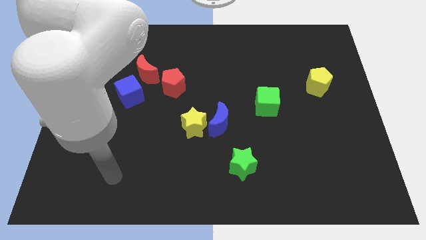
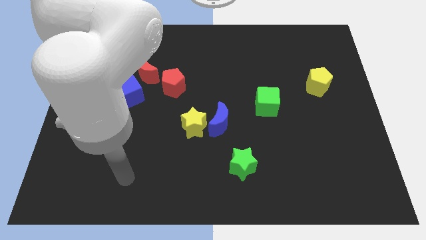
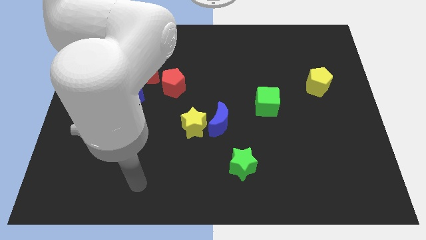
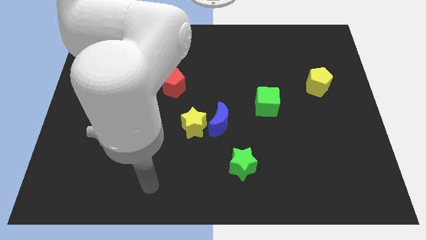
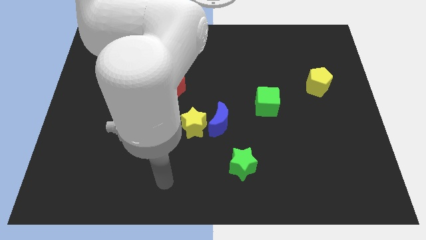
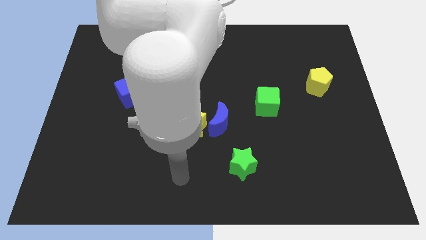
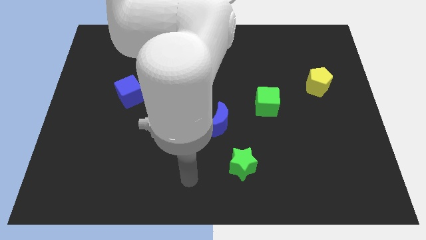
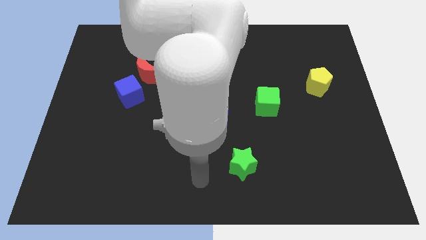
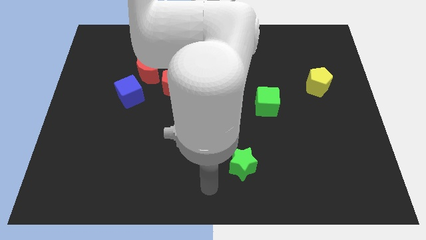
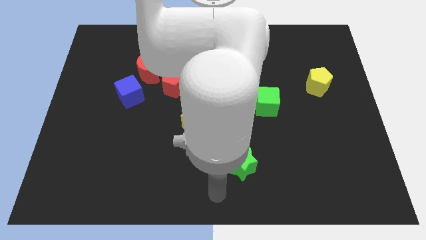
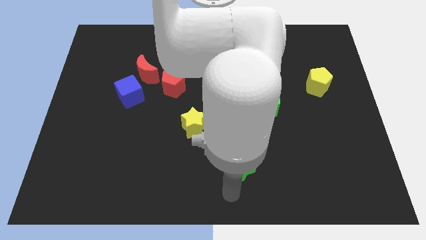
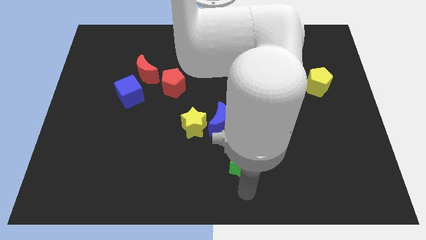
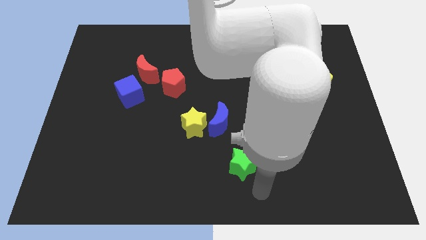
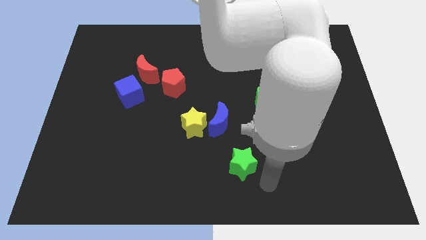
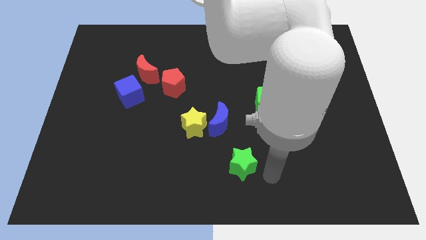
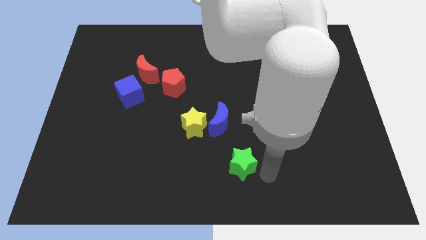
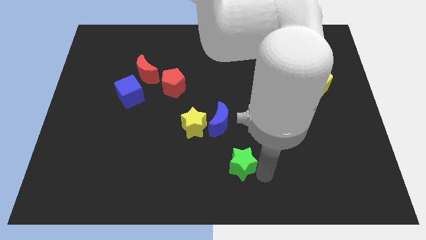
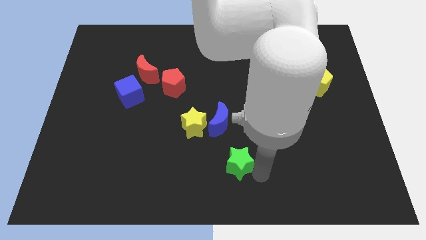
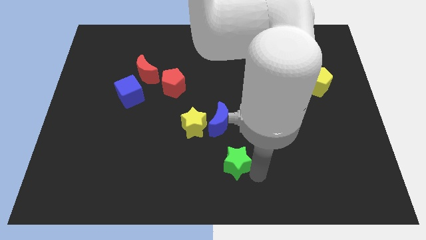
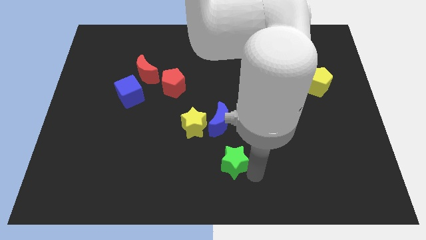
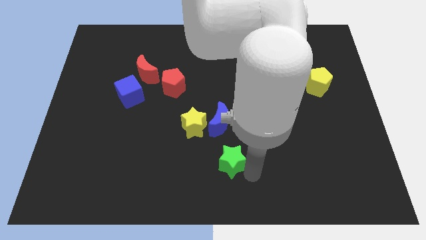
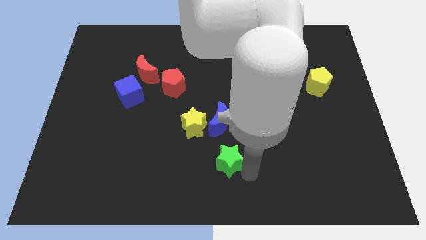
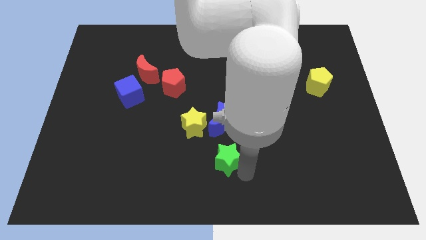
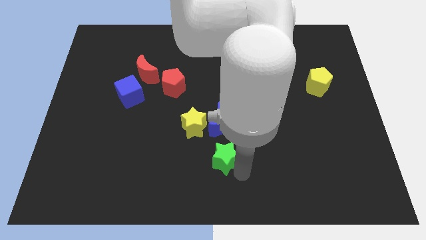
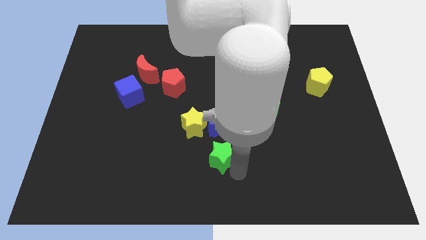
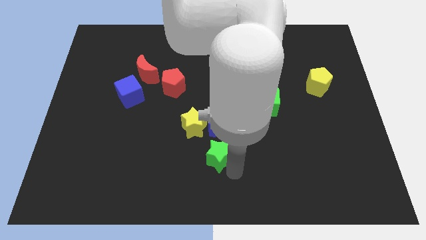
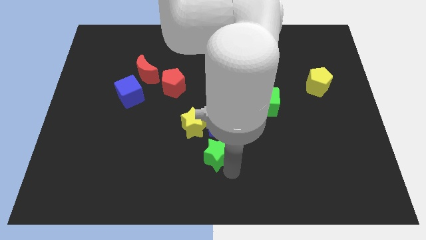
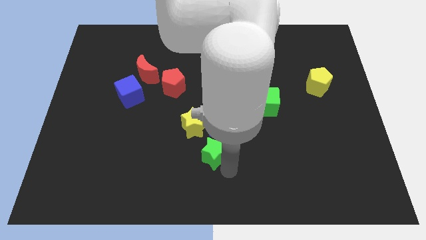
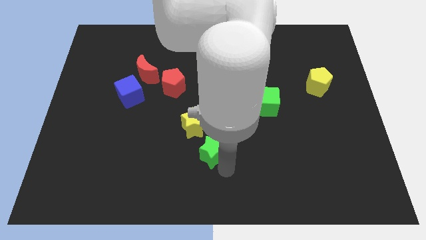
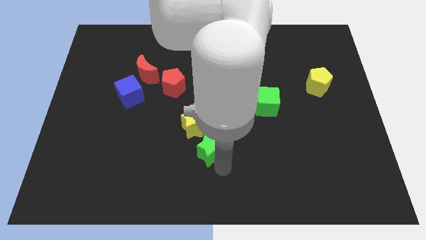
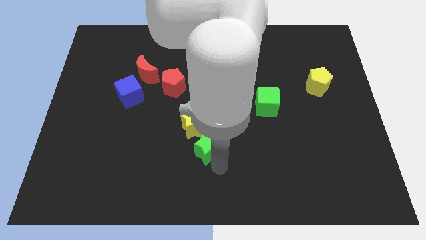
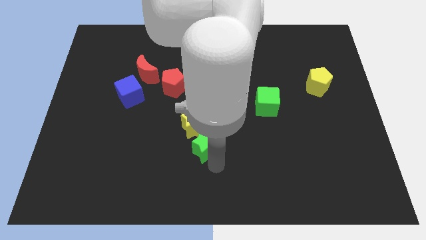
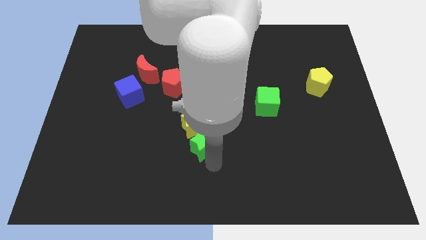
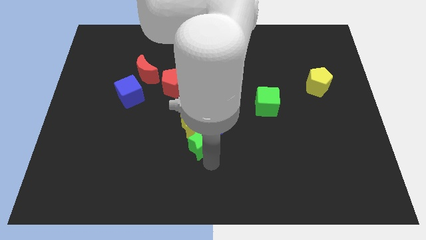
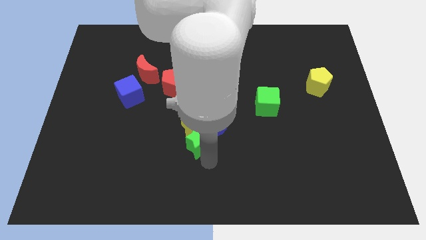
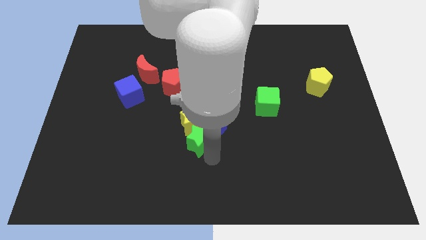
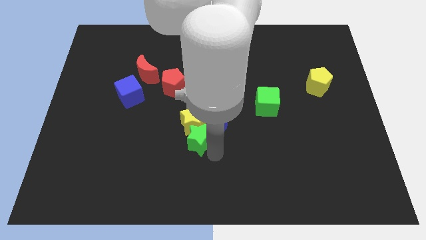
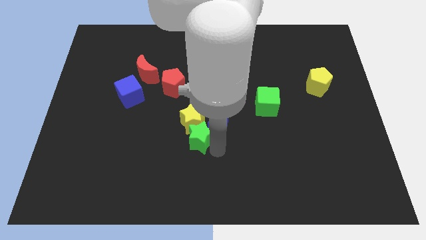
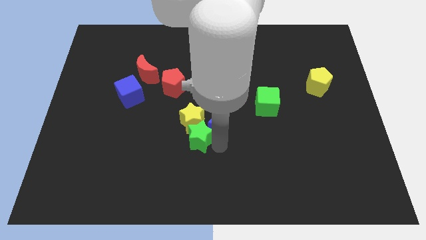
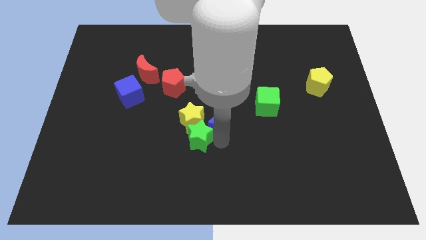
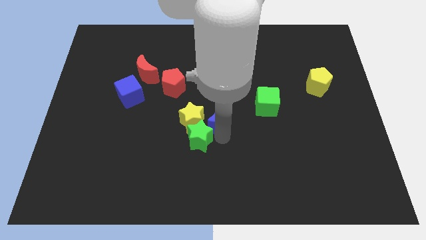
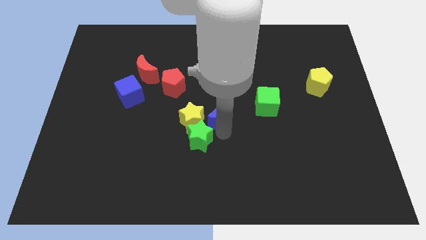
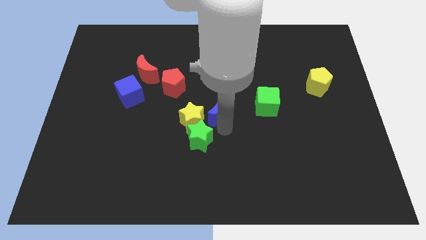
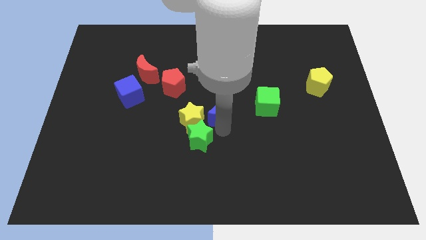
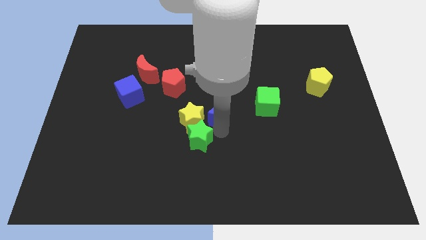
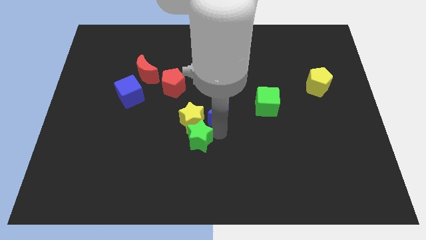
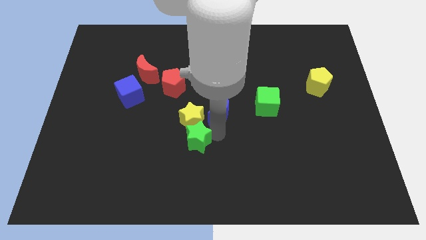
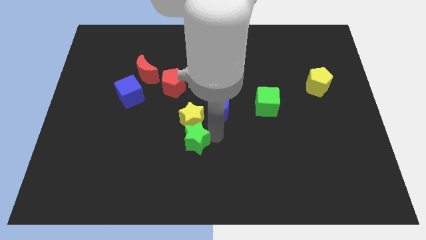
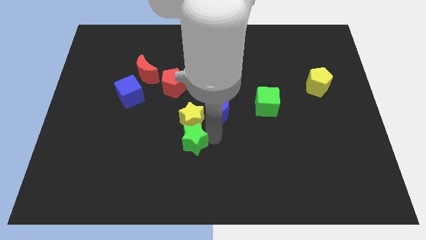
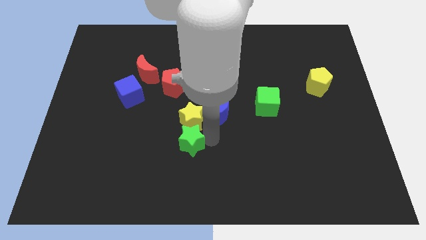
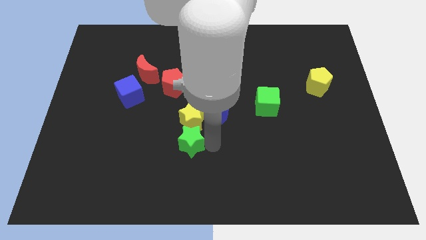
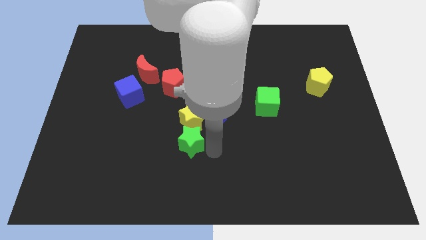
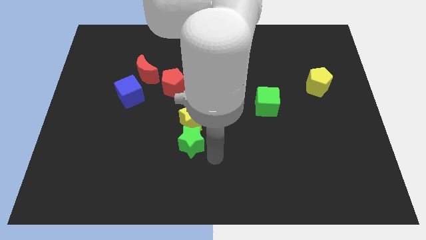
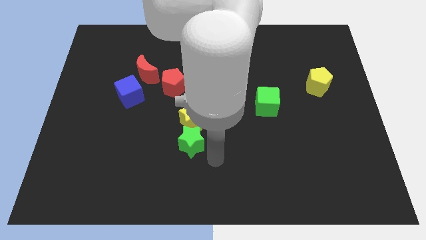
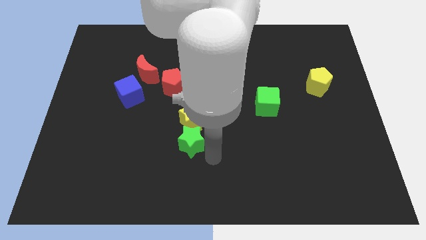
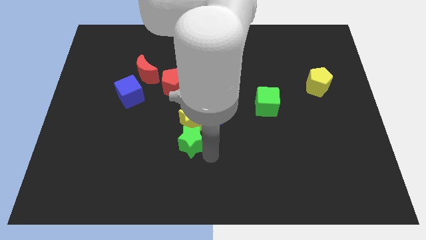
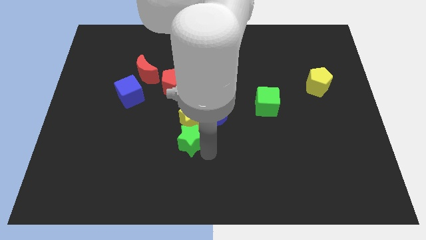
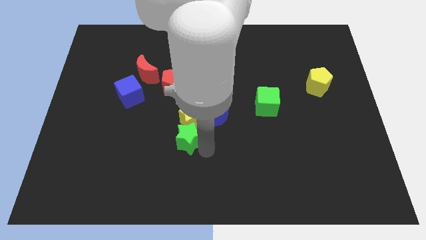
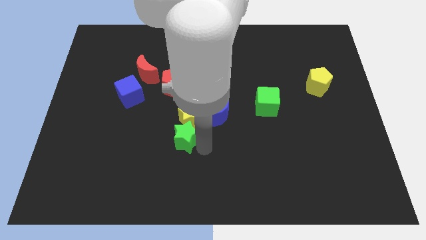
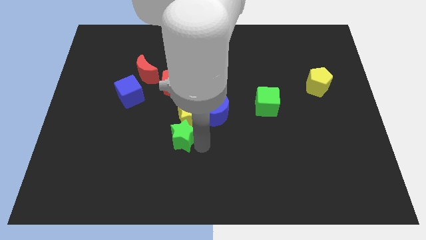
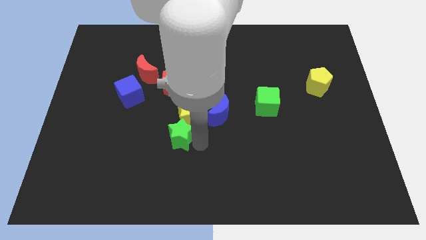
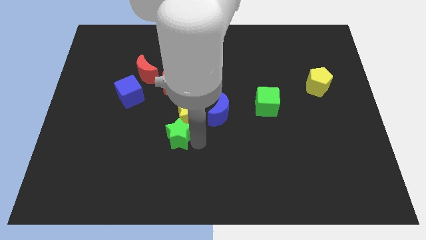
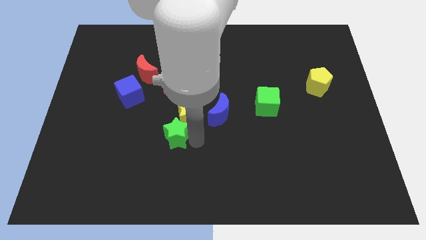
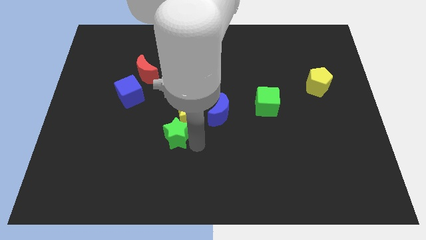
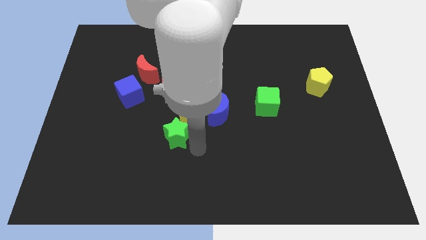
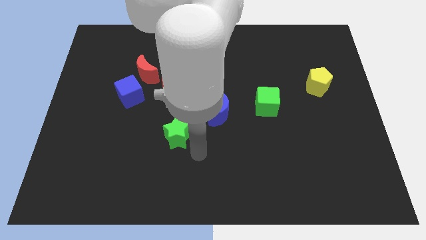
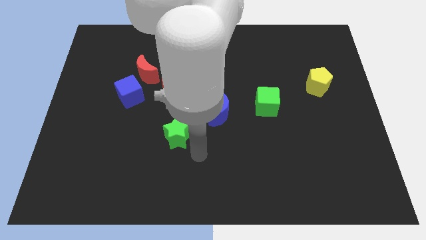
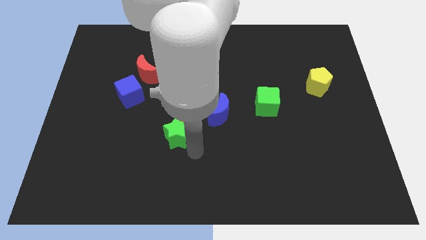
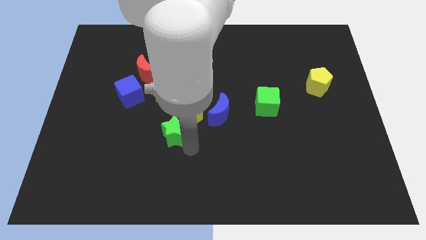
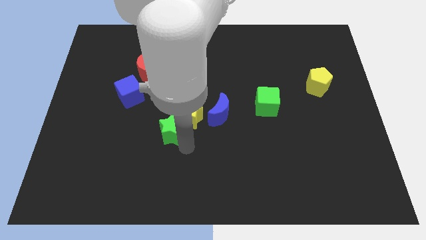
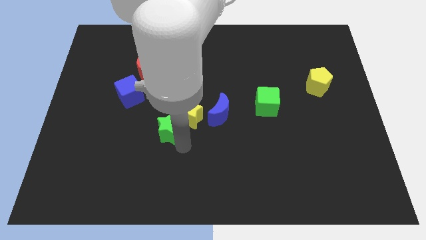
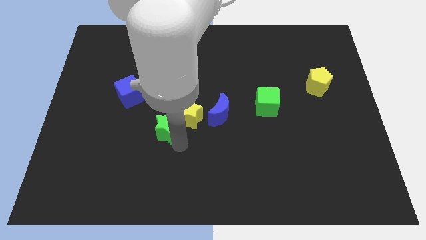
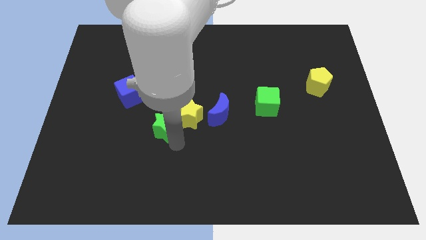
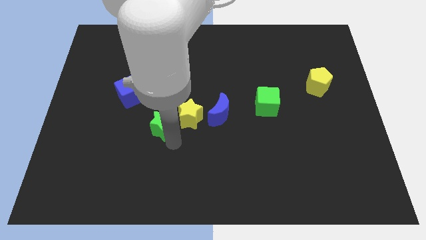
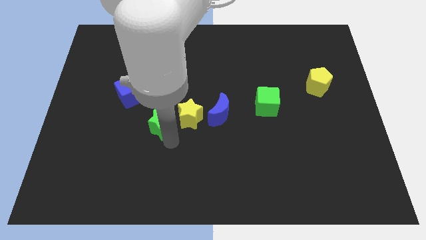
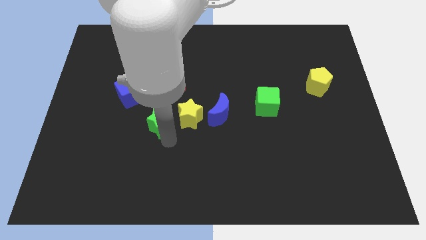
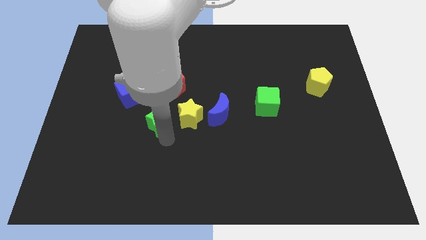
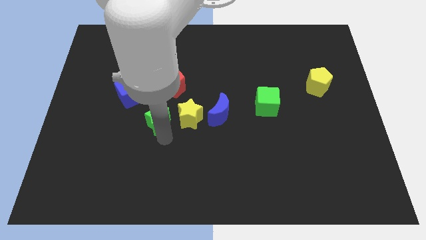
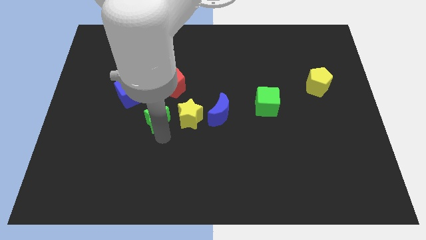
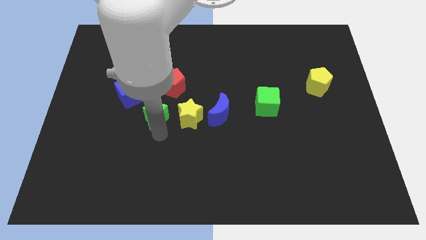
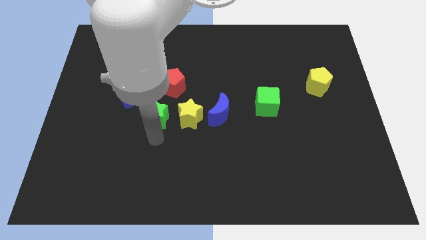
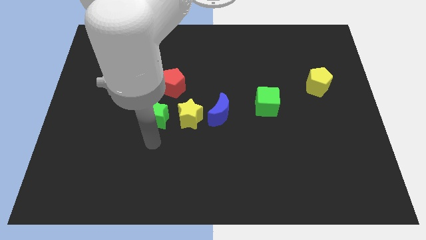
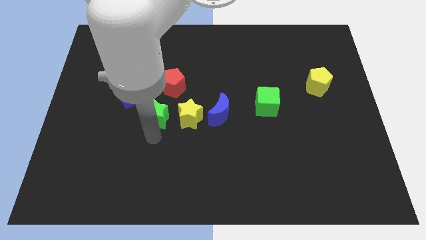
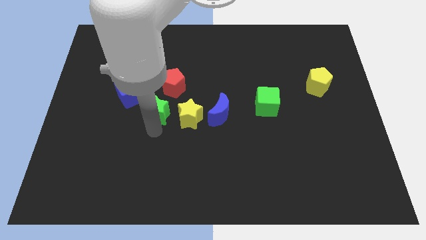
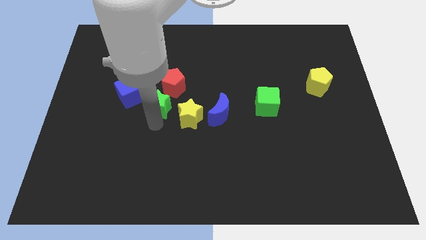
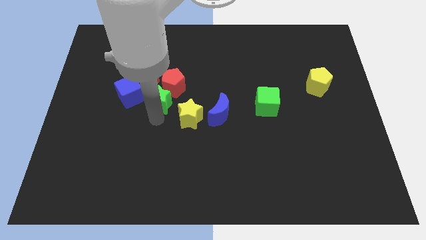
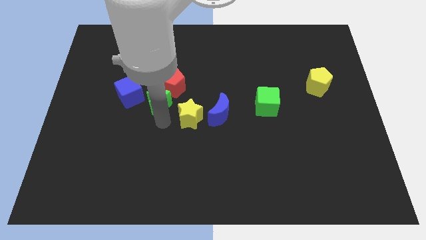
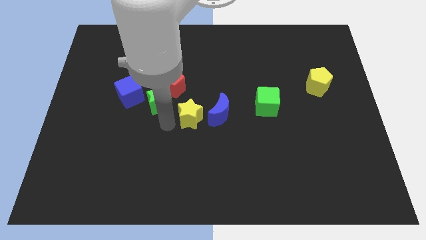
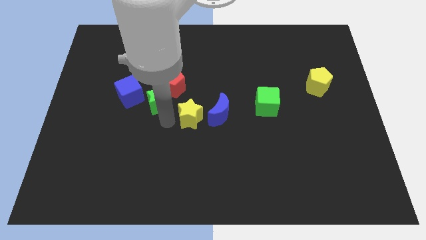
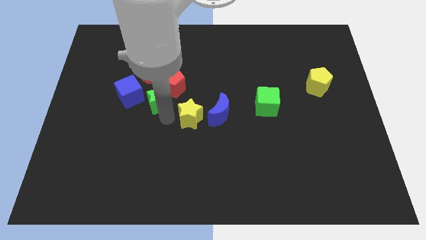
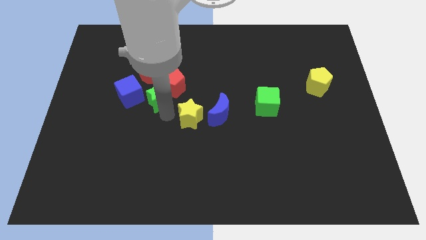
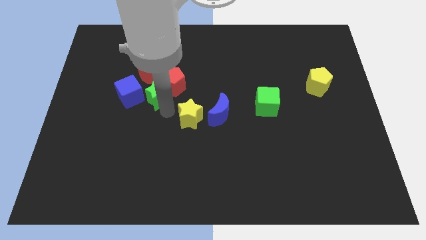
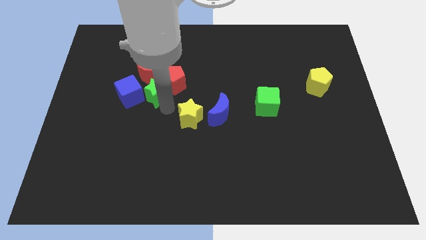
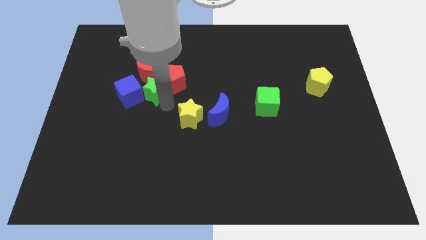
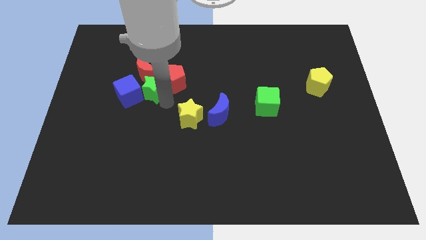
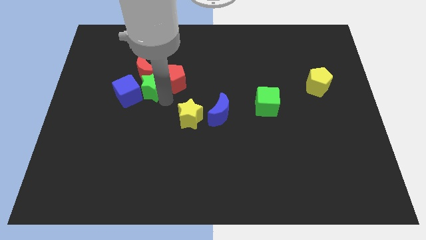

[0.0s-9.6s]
put the green star next to the red moon
